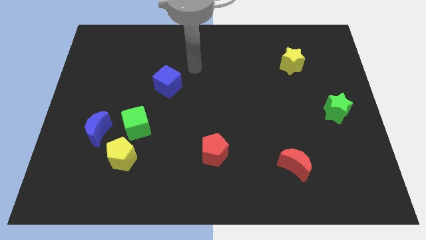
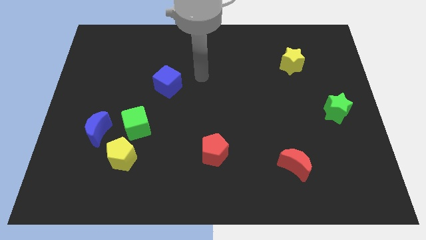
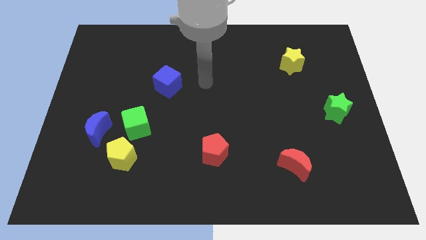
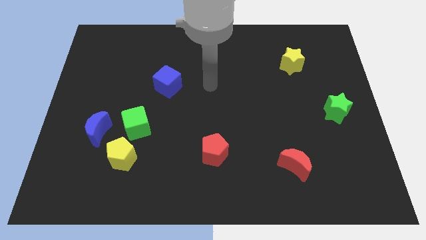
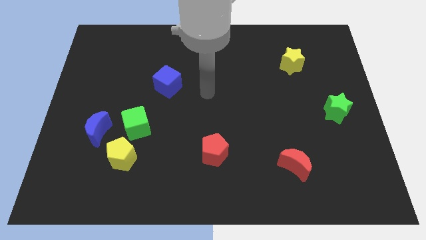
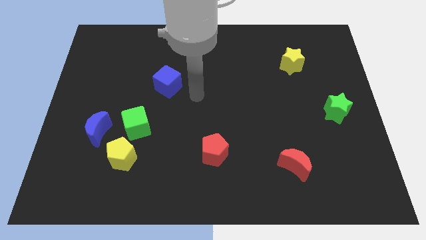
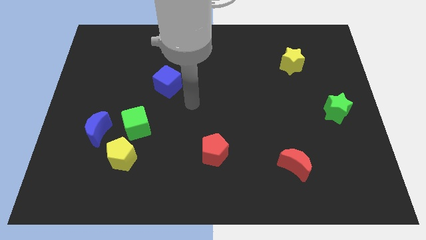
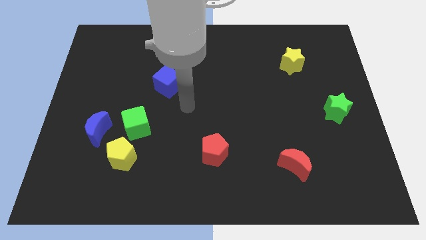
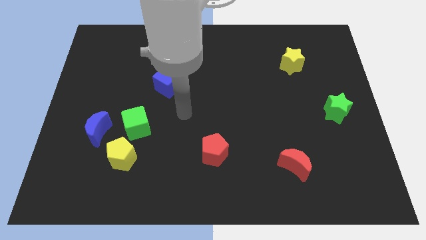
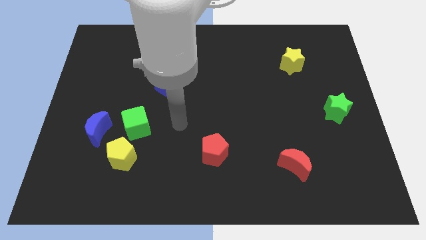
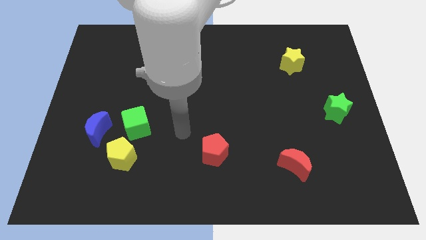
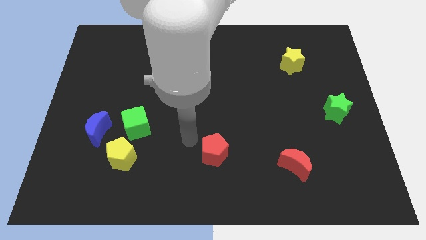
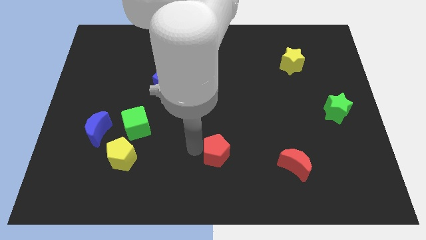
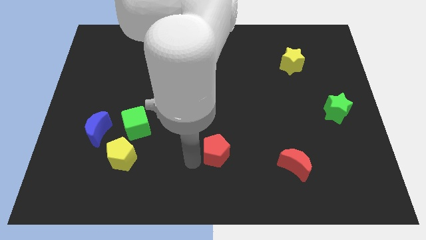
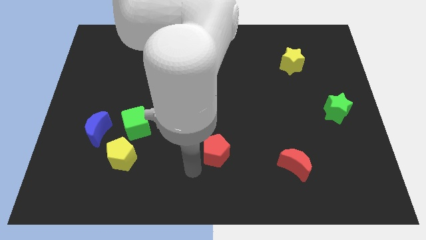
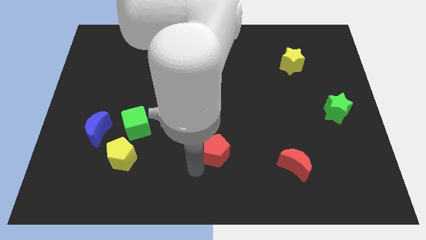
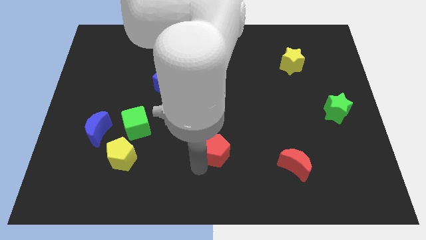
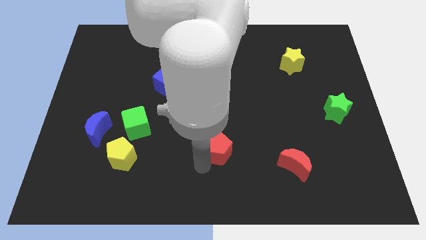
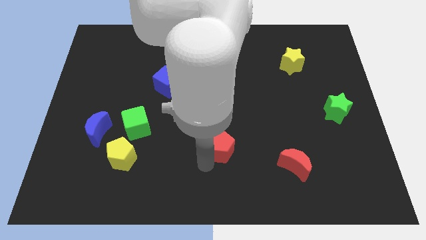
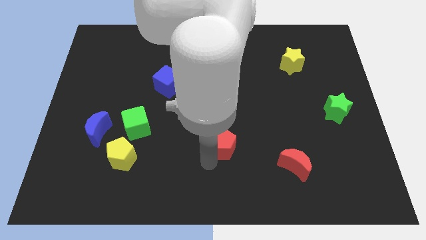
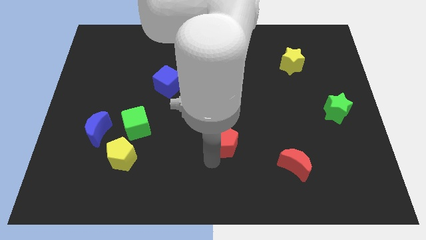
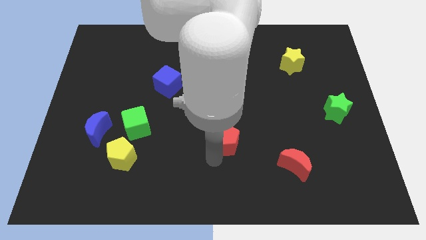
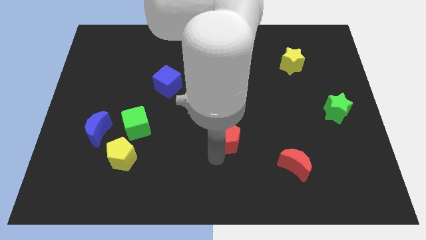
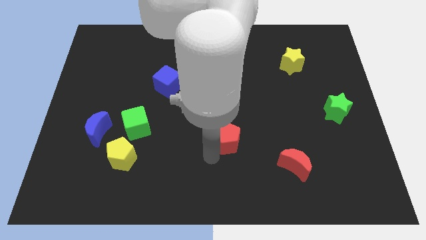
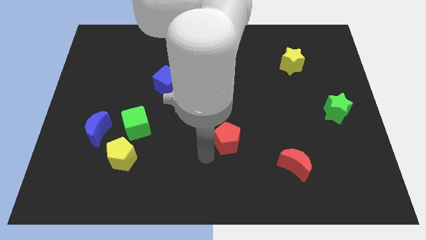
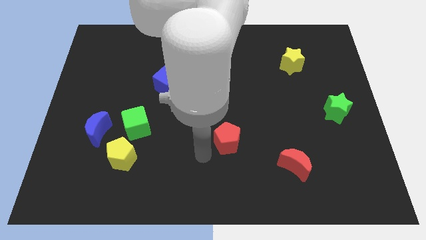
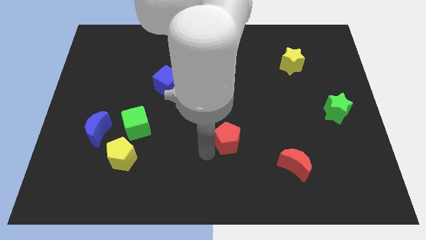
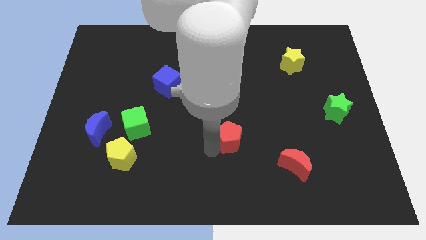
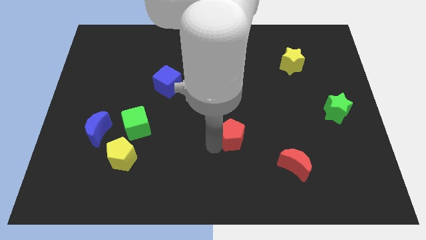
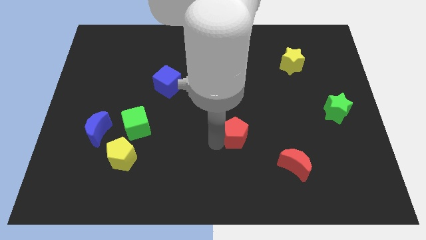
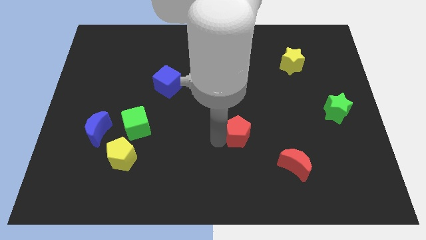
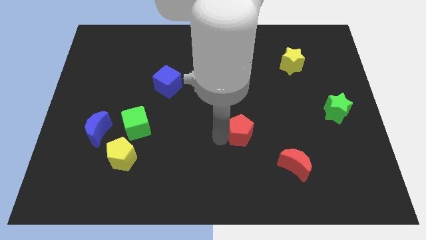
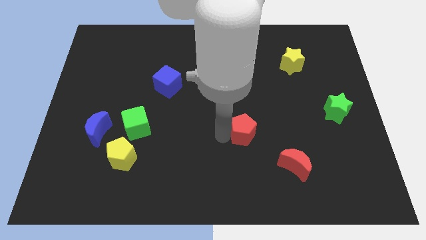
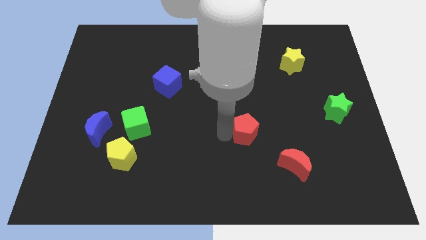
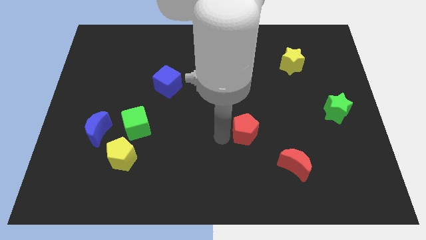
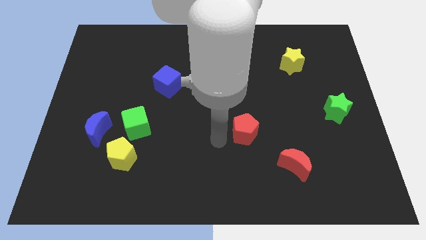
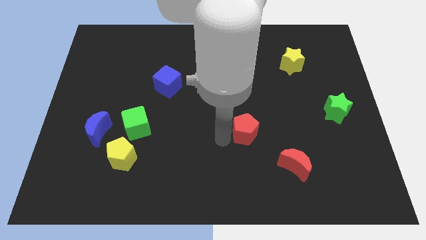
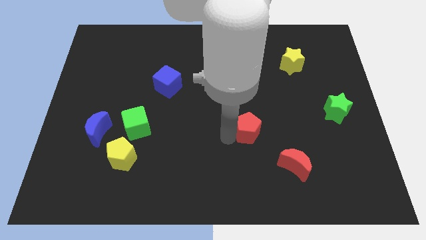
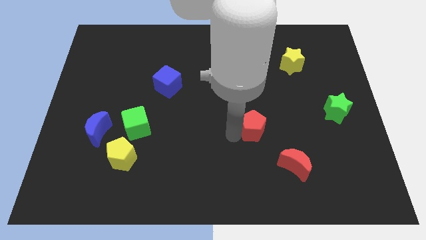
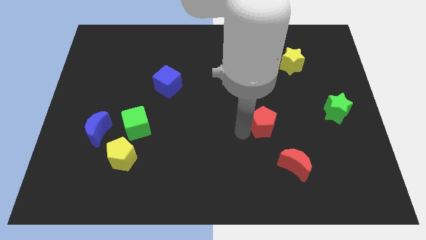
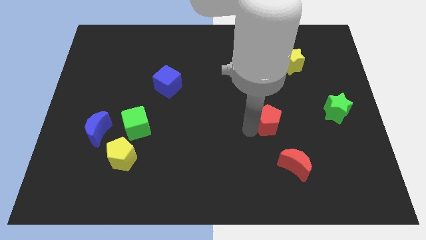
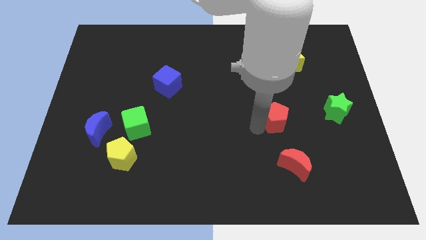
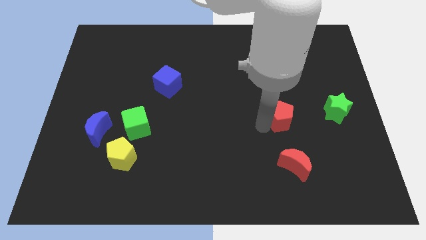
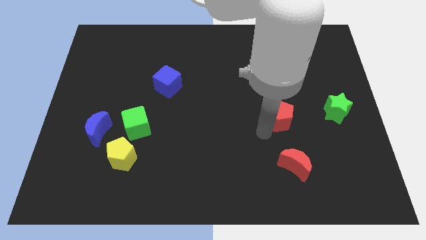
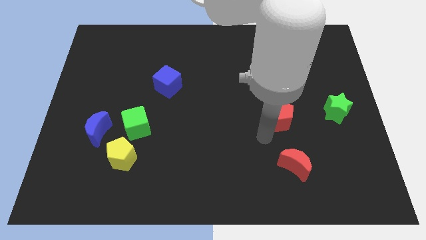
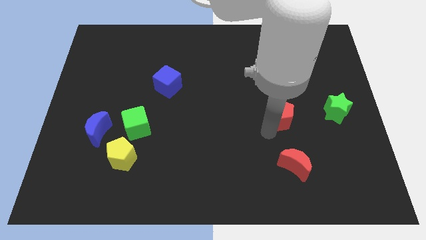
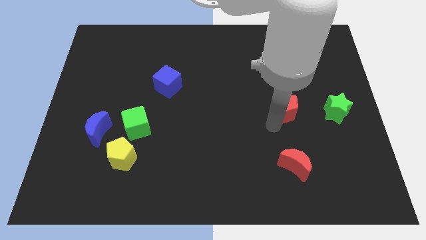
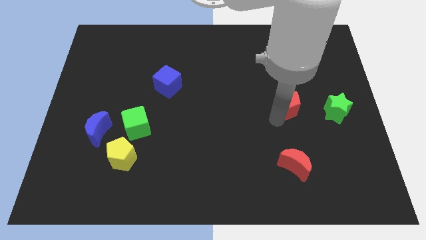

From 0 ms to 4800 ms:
put the red pentagon to the bottom side of the yellow star

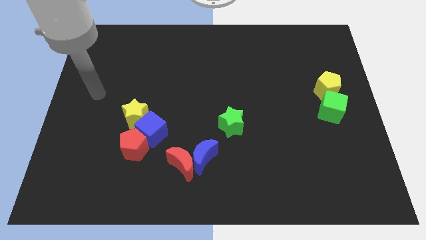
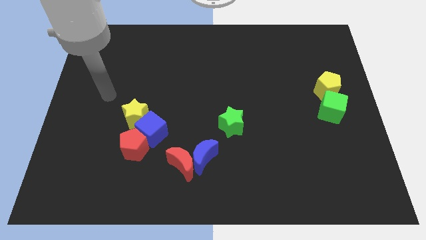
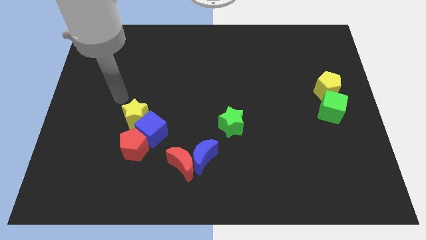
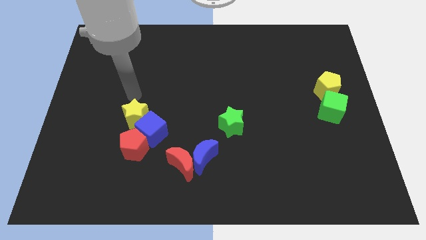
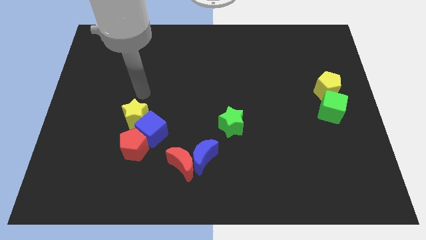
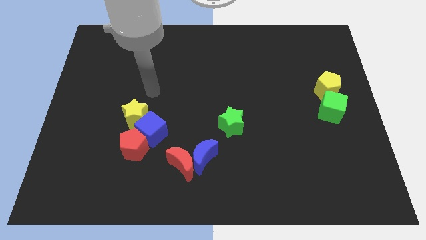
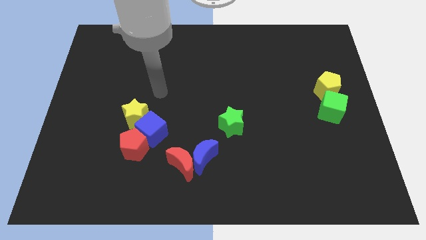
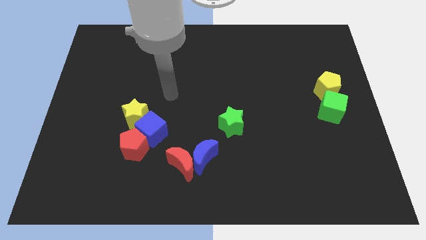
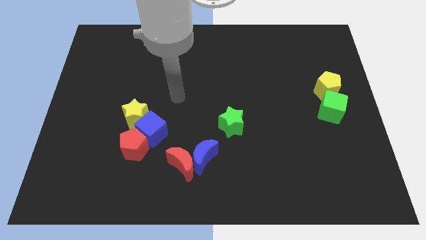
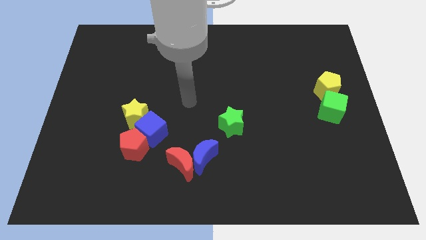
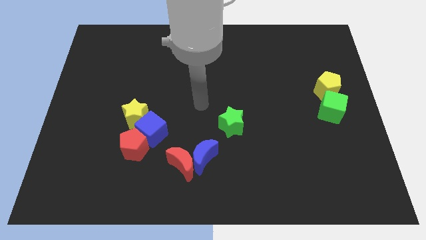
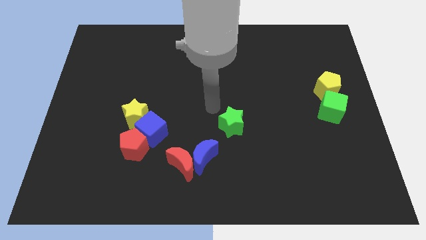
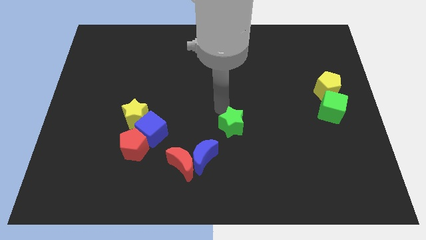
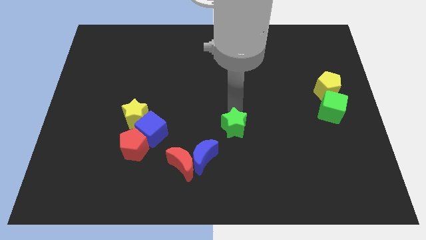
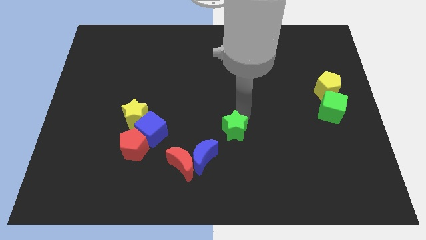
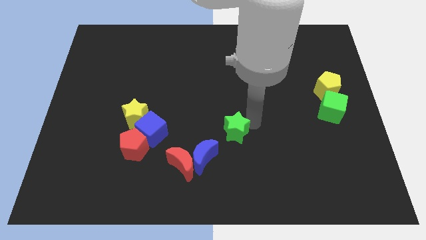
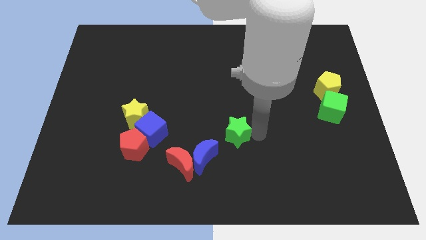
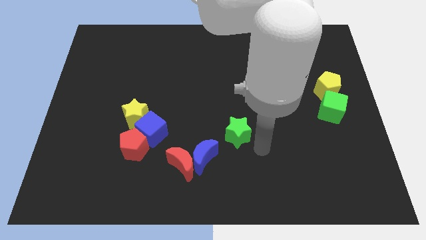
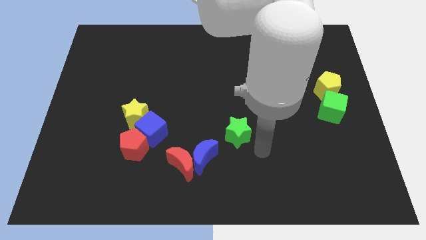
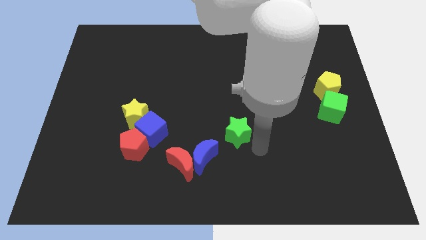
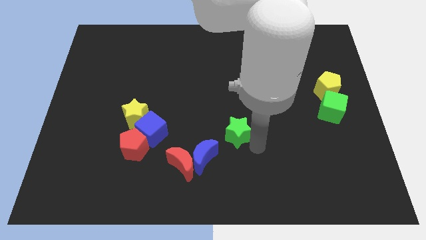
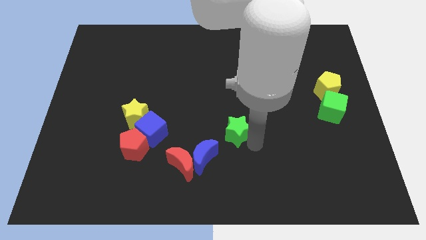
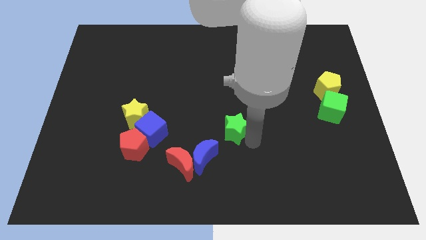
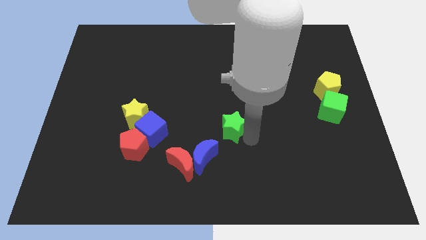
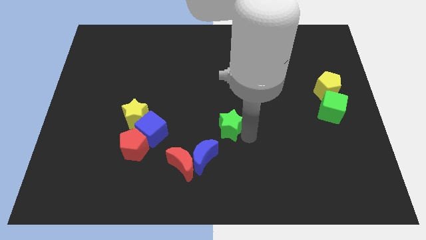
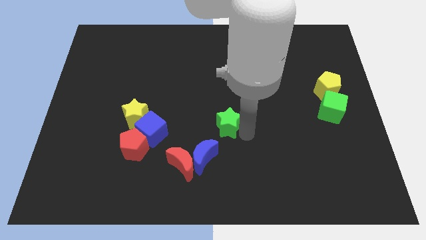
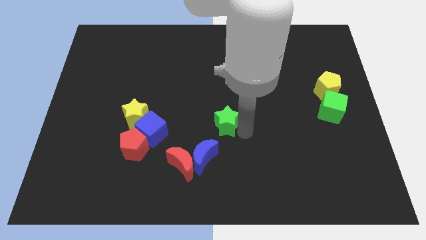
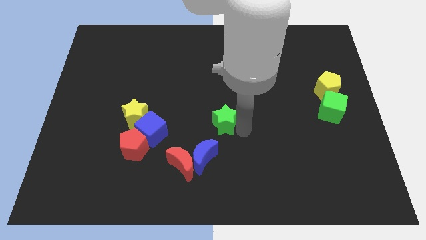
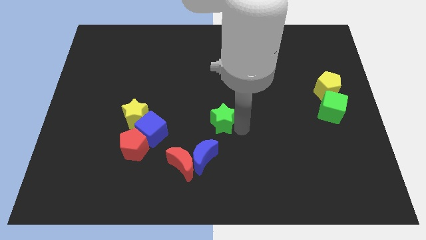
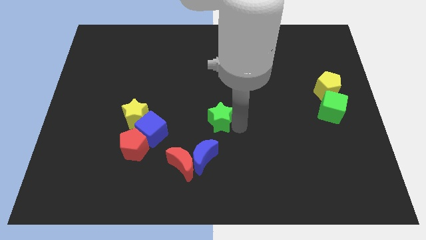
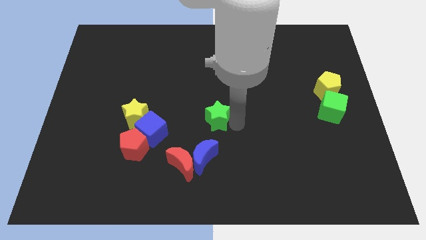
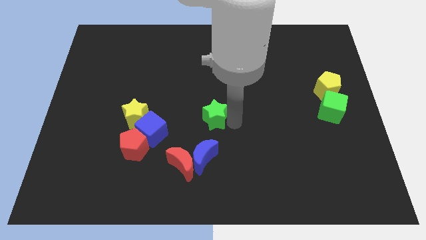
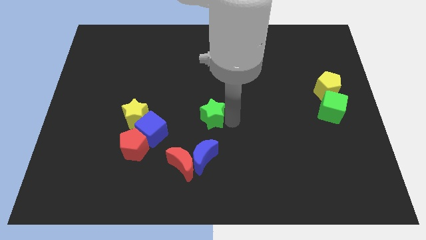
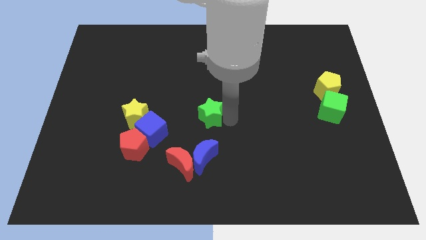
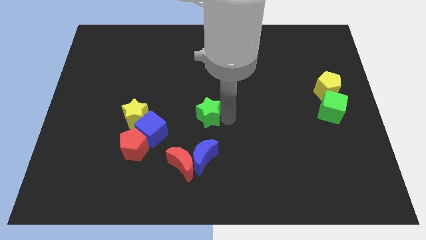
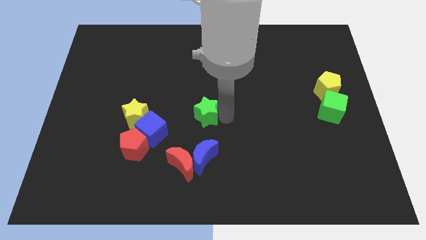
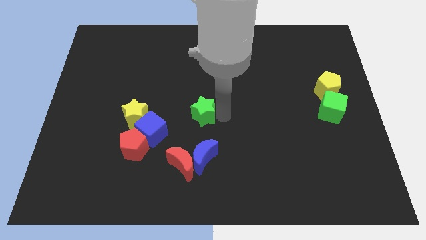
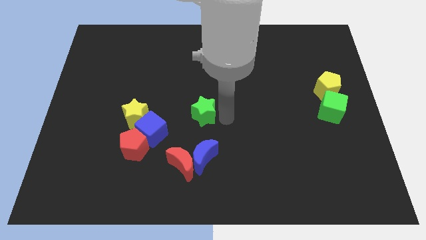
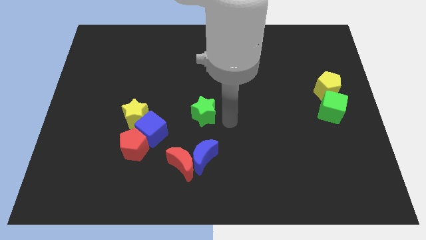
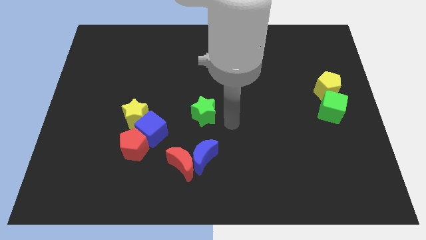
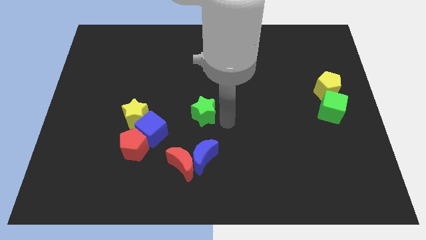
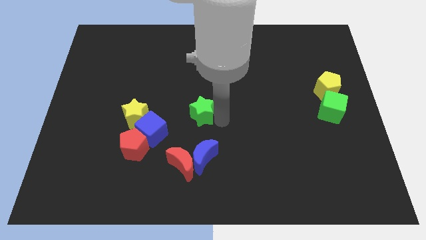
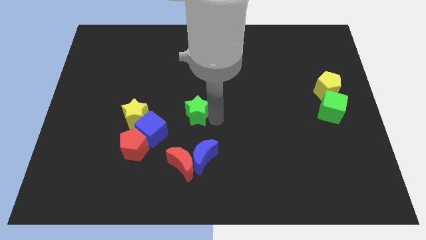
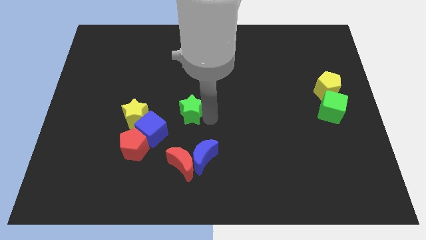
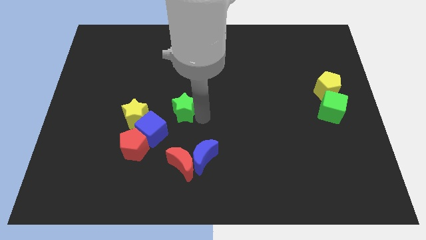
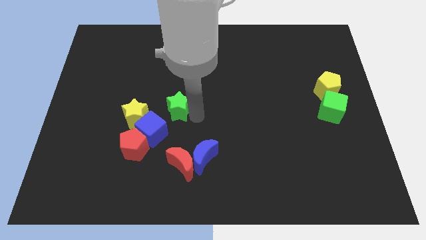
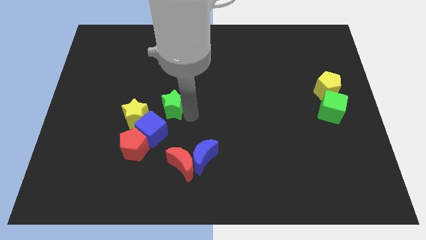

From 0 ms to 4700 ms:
push the green star to the top of the blue cube
